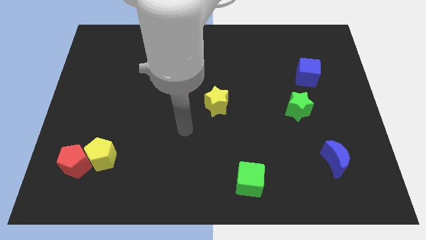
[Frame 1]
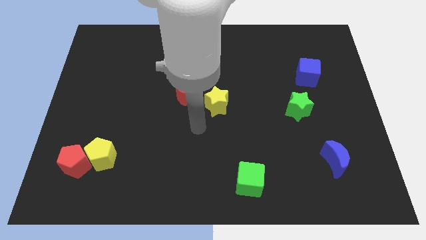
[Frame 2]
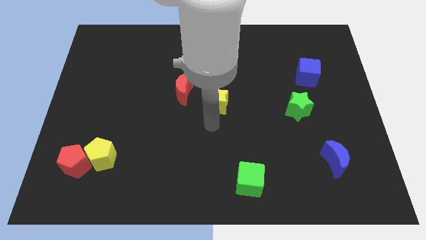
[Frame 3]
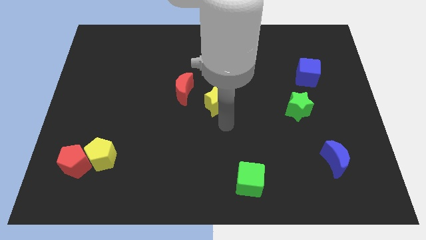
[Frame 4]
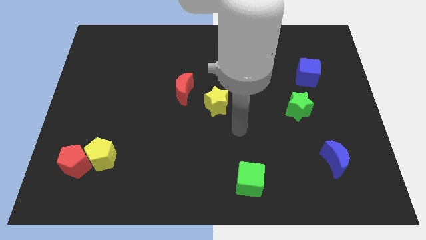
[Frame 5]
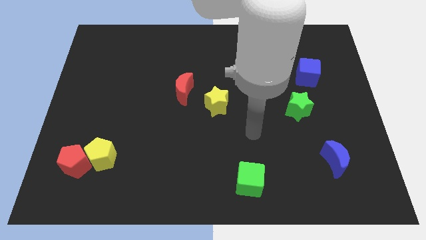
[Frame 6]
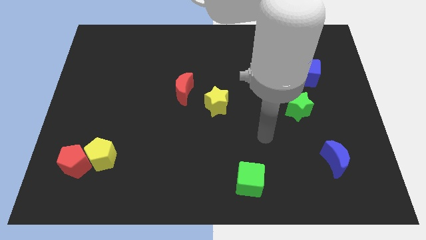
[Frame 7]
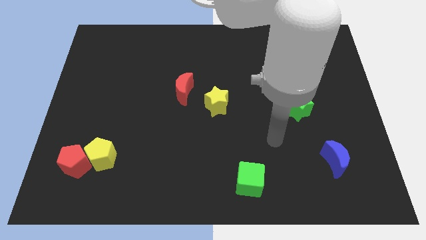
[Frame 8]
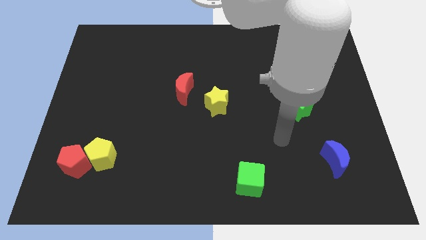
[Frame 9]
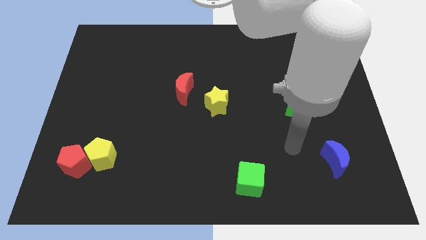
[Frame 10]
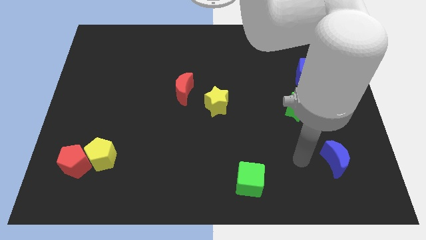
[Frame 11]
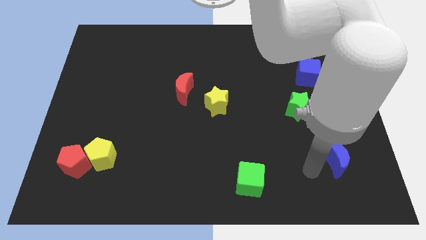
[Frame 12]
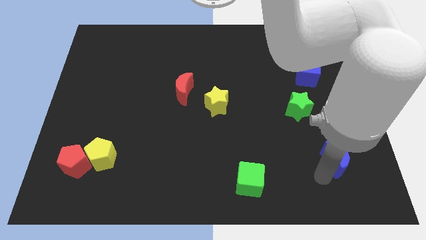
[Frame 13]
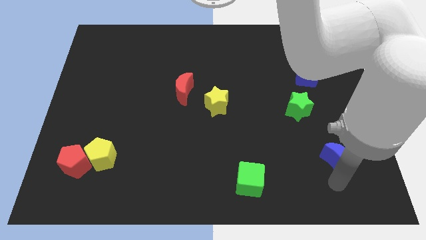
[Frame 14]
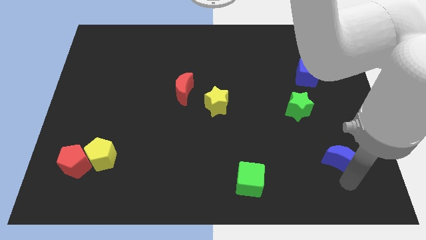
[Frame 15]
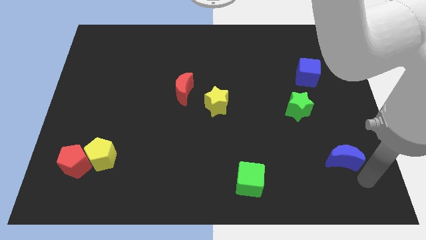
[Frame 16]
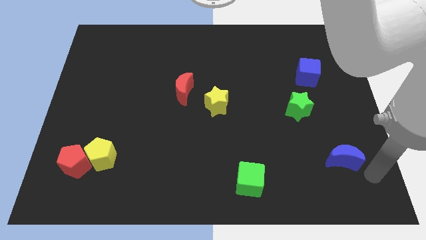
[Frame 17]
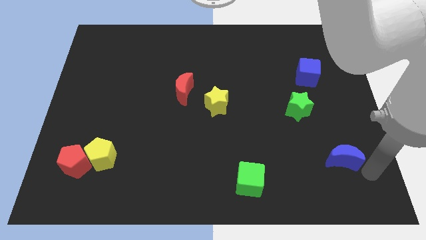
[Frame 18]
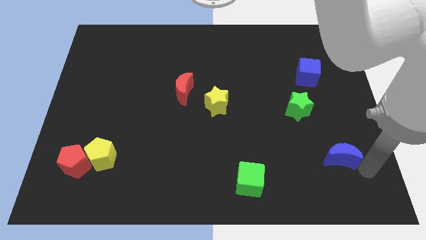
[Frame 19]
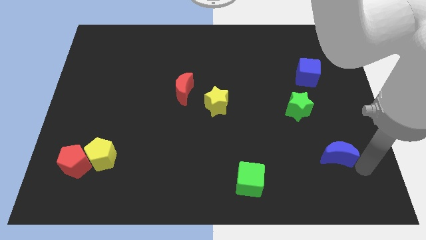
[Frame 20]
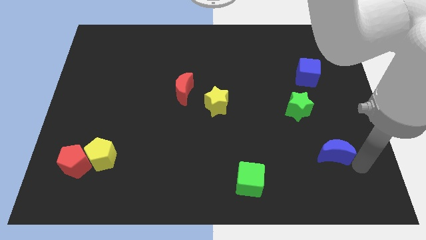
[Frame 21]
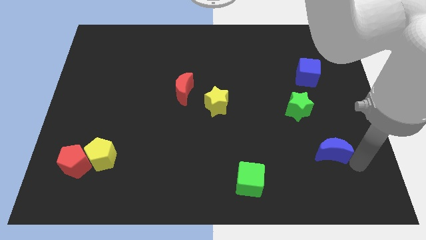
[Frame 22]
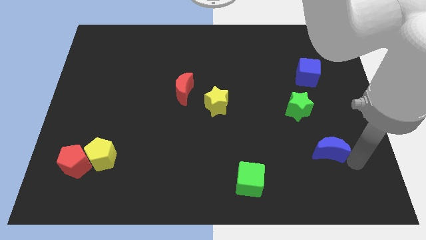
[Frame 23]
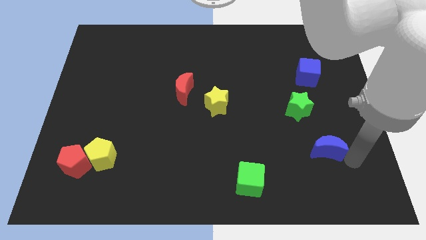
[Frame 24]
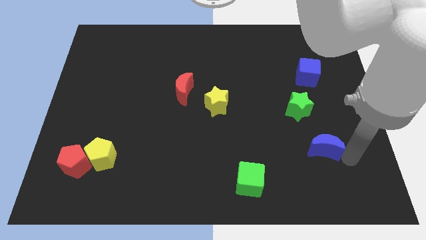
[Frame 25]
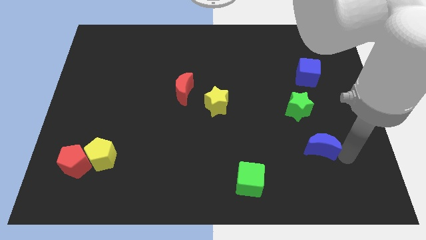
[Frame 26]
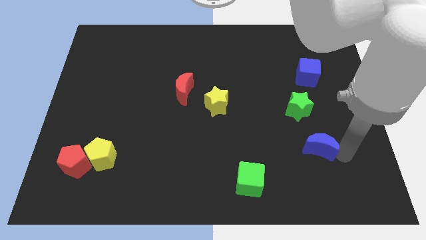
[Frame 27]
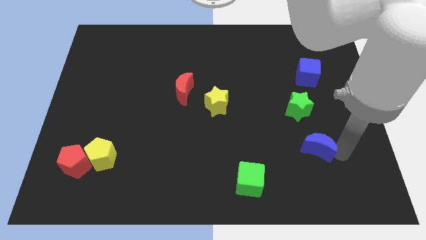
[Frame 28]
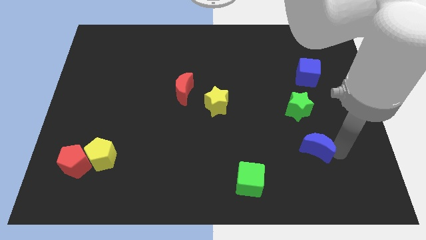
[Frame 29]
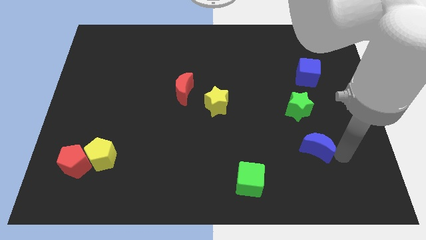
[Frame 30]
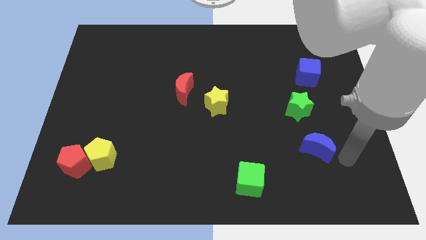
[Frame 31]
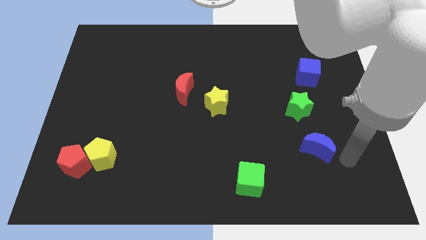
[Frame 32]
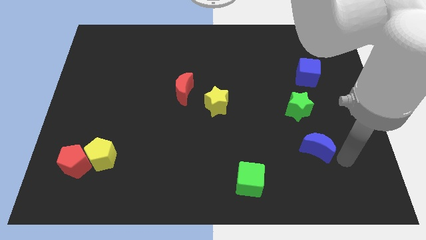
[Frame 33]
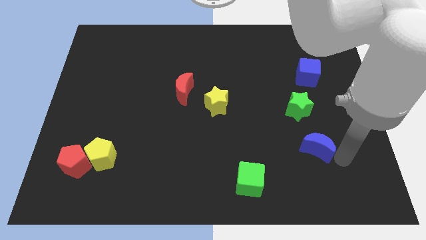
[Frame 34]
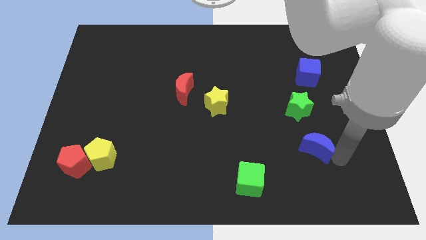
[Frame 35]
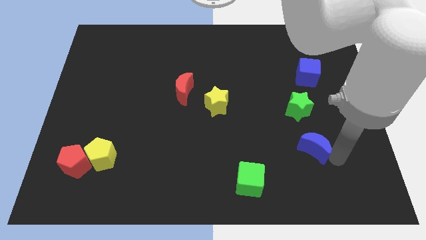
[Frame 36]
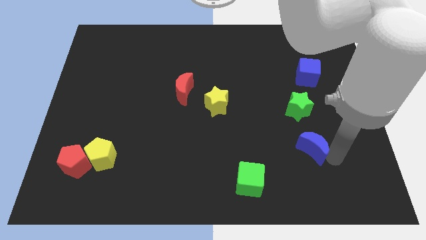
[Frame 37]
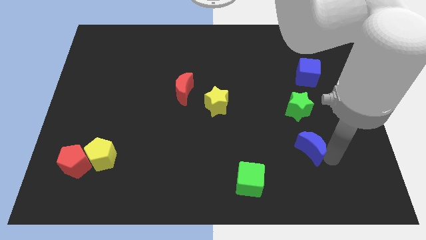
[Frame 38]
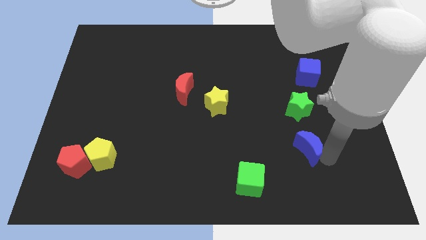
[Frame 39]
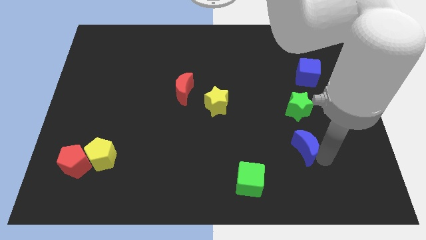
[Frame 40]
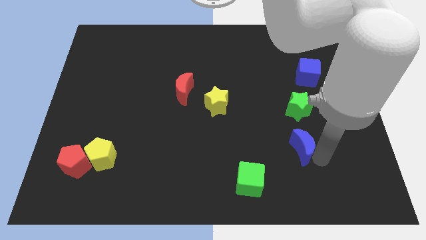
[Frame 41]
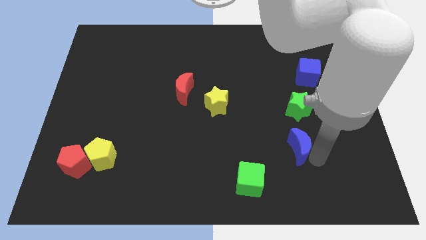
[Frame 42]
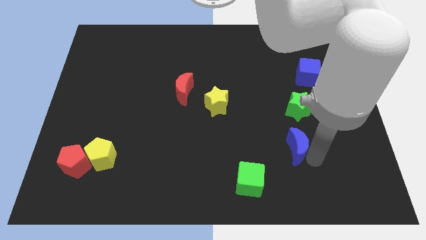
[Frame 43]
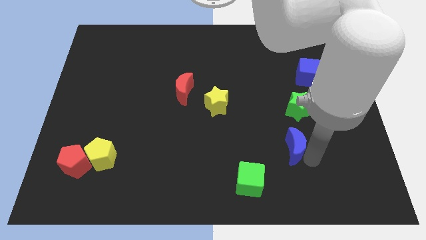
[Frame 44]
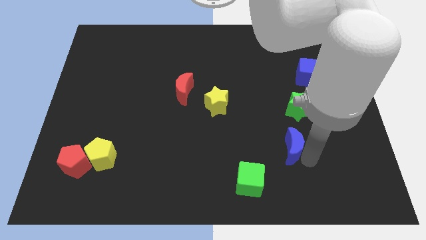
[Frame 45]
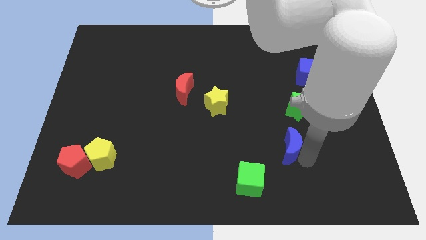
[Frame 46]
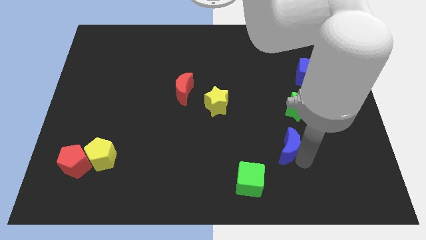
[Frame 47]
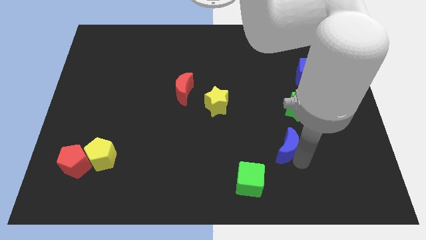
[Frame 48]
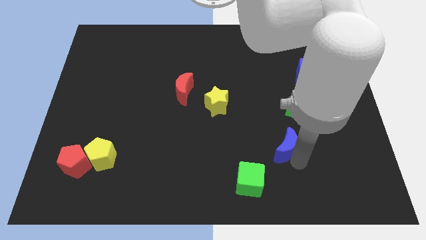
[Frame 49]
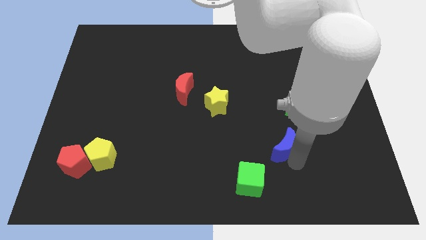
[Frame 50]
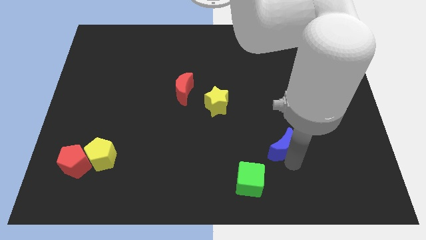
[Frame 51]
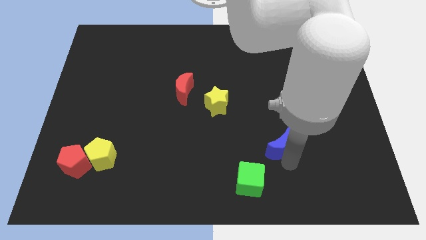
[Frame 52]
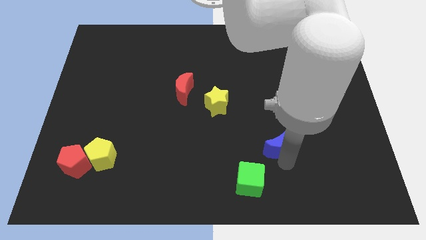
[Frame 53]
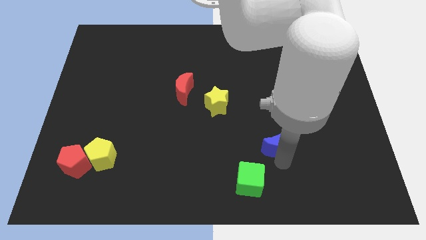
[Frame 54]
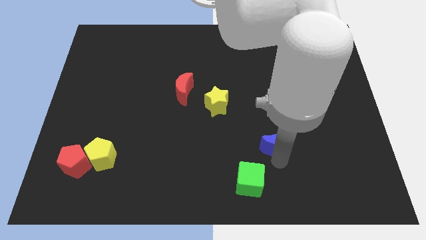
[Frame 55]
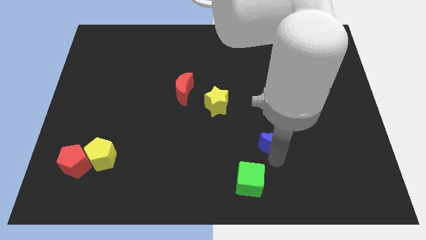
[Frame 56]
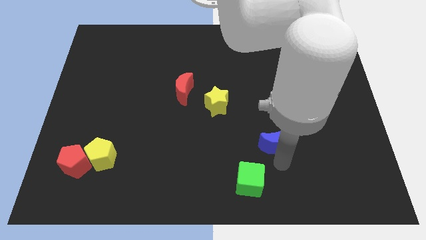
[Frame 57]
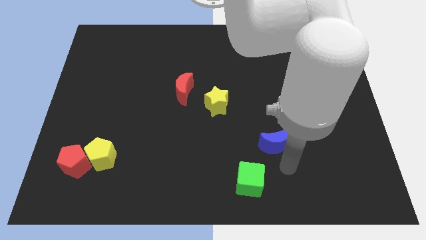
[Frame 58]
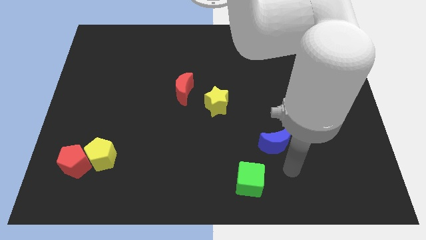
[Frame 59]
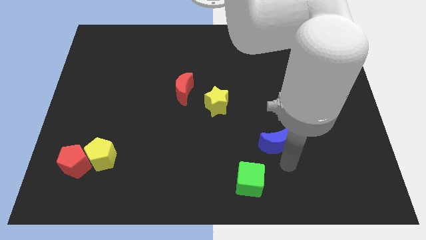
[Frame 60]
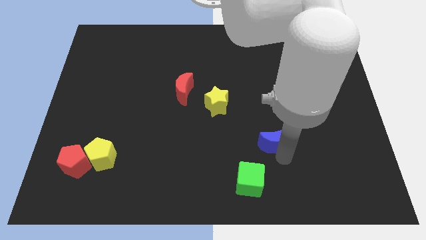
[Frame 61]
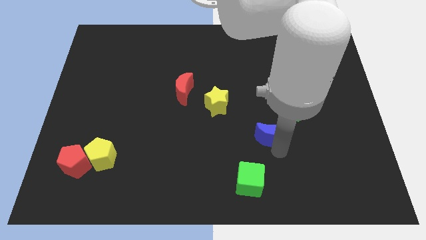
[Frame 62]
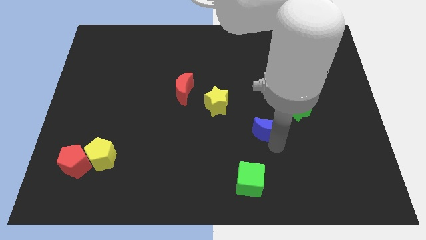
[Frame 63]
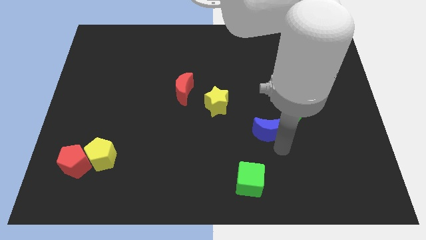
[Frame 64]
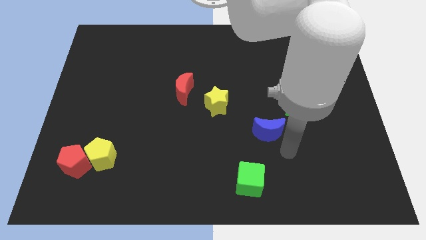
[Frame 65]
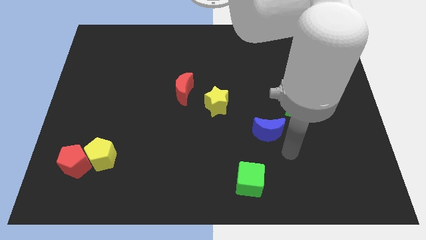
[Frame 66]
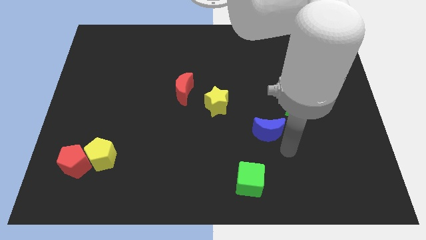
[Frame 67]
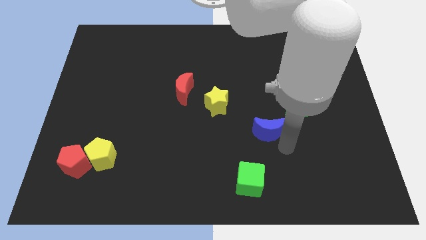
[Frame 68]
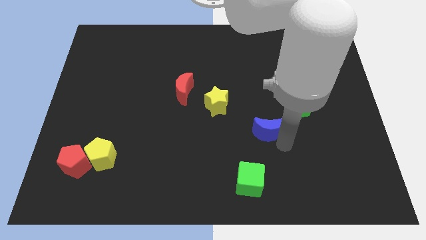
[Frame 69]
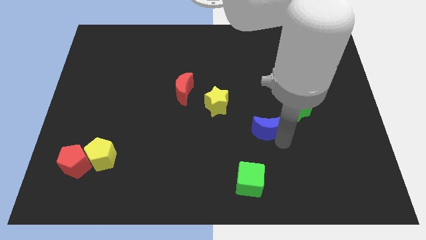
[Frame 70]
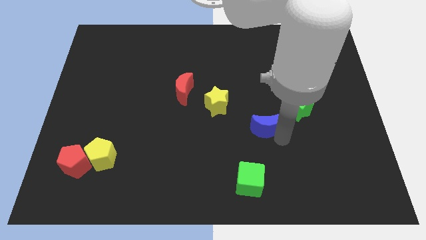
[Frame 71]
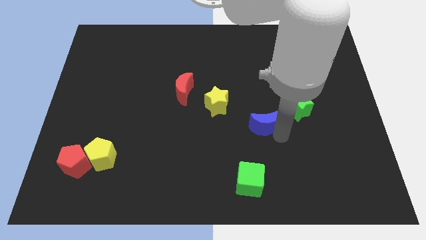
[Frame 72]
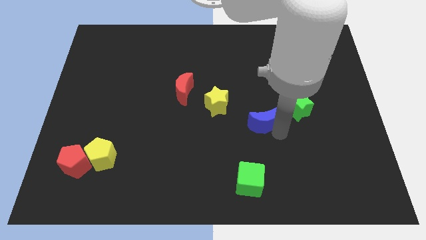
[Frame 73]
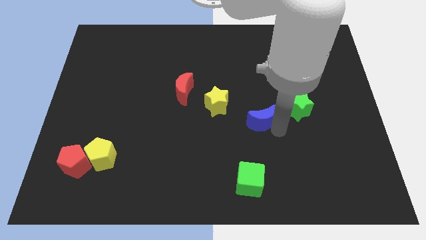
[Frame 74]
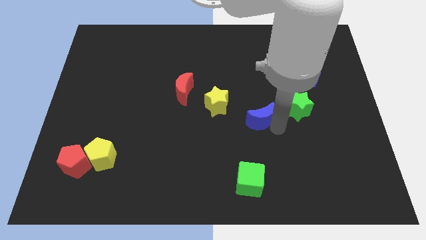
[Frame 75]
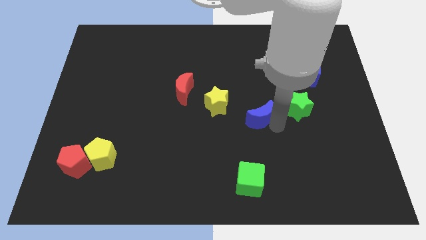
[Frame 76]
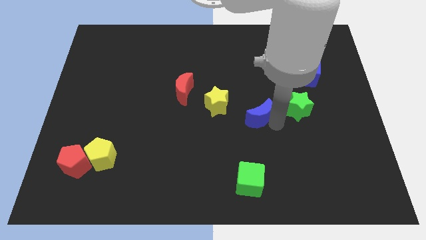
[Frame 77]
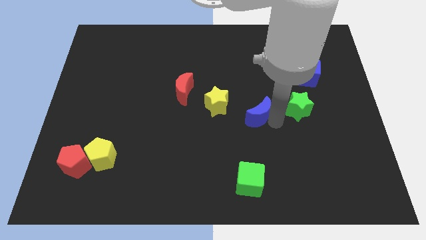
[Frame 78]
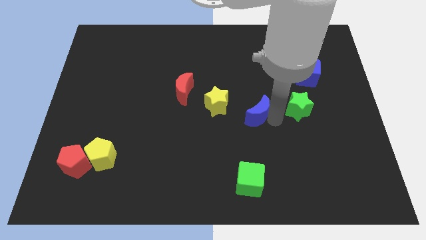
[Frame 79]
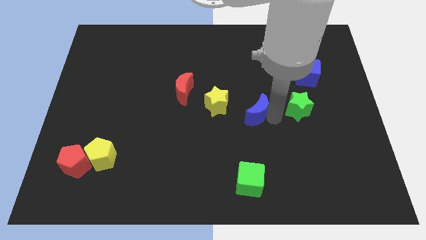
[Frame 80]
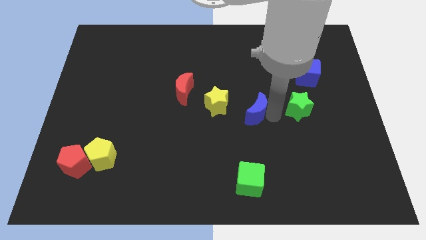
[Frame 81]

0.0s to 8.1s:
slide the blue moon up and left
